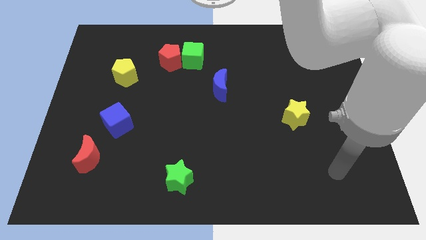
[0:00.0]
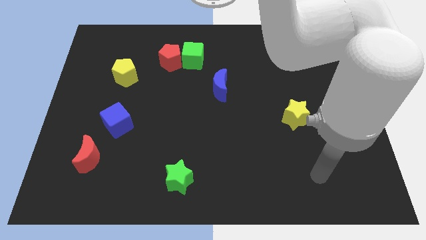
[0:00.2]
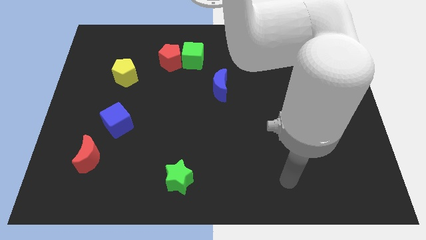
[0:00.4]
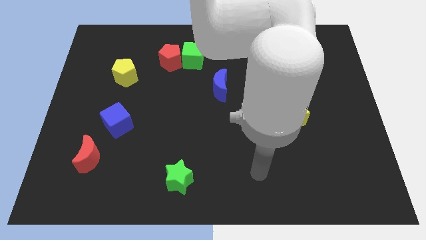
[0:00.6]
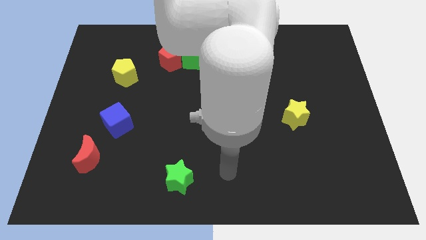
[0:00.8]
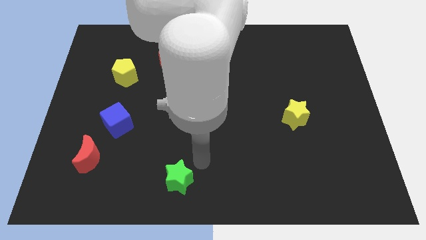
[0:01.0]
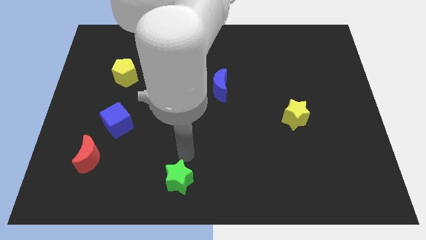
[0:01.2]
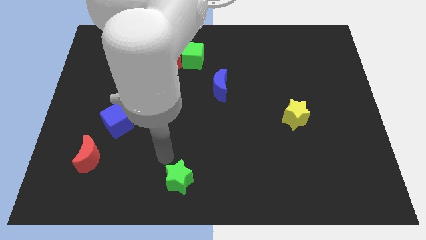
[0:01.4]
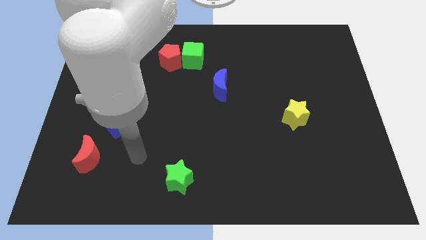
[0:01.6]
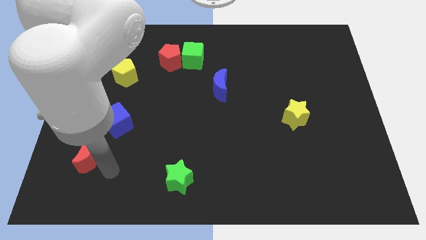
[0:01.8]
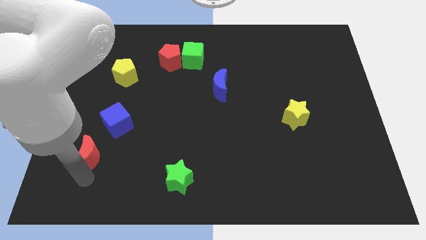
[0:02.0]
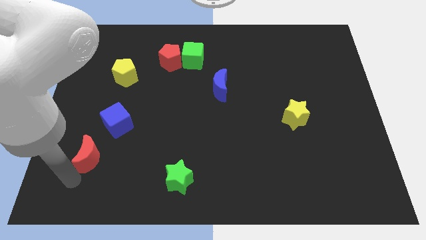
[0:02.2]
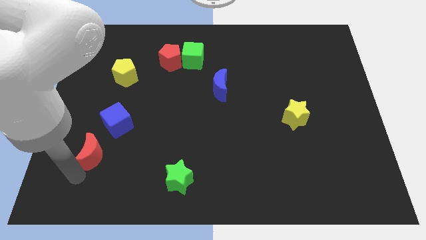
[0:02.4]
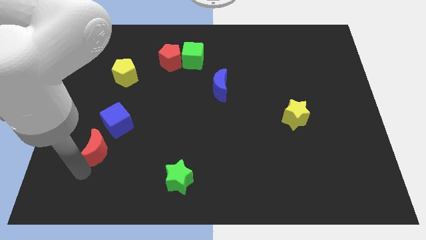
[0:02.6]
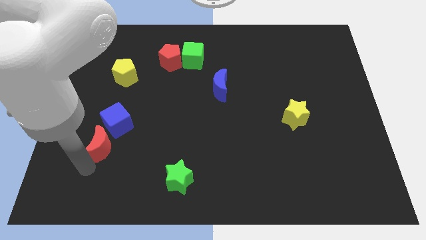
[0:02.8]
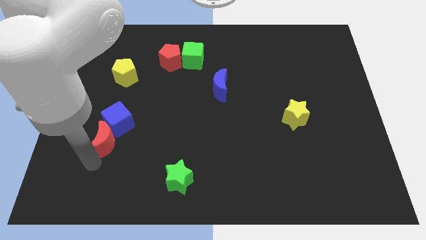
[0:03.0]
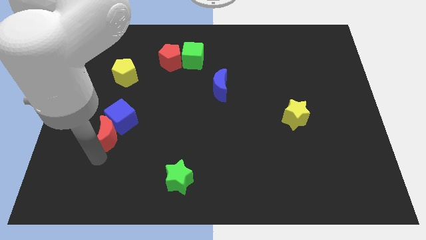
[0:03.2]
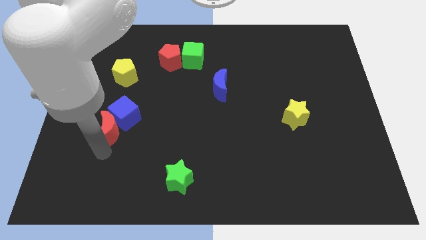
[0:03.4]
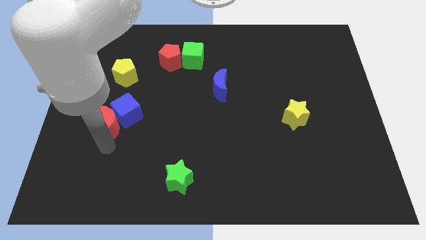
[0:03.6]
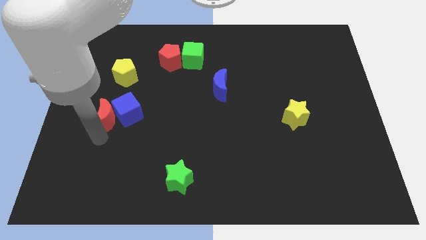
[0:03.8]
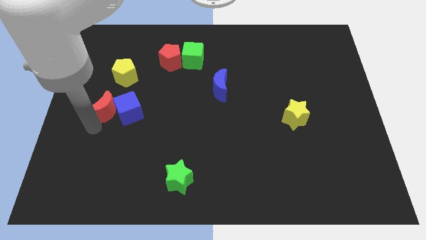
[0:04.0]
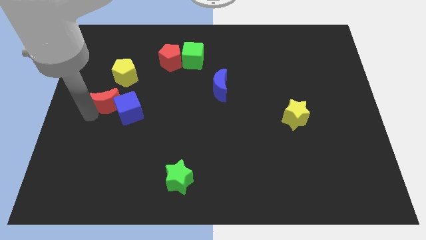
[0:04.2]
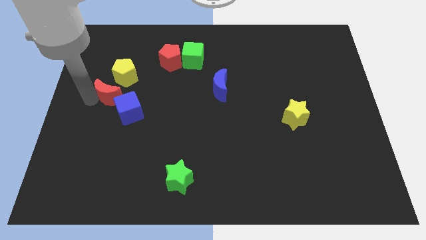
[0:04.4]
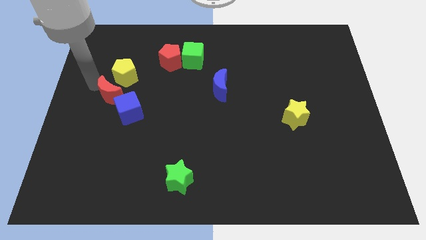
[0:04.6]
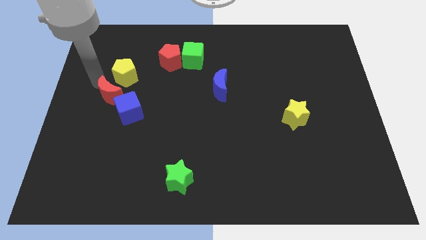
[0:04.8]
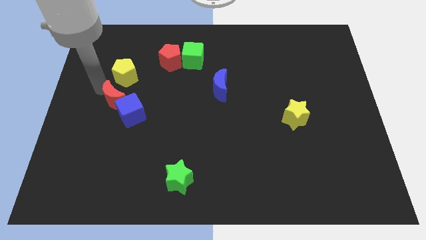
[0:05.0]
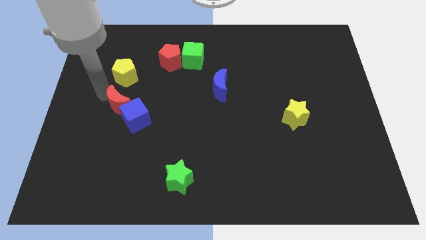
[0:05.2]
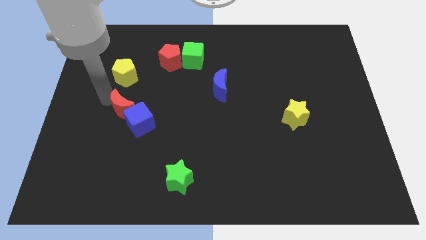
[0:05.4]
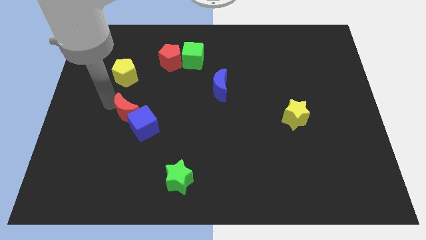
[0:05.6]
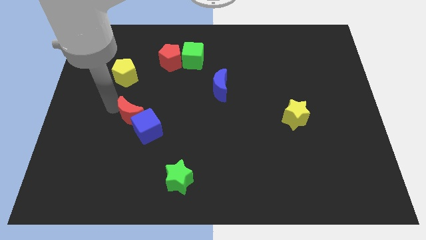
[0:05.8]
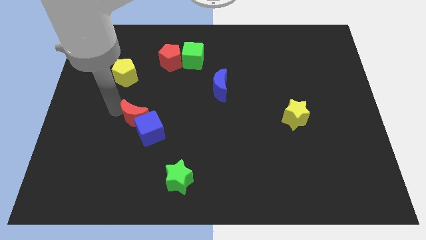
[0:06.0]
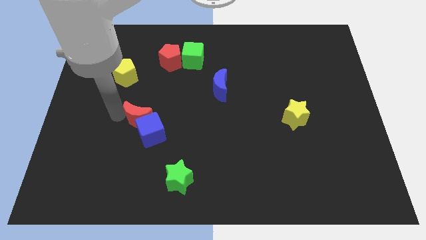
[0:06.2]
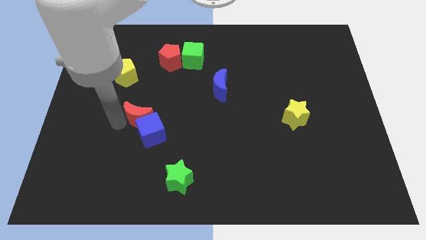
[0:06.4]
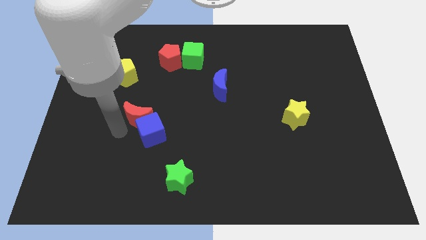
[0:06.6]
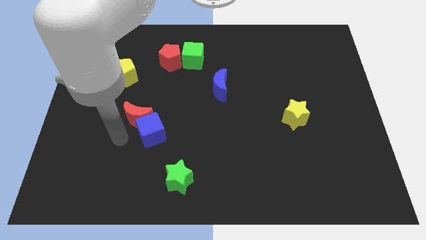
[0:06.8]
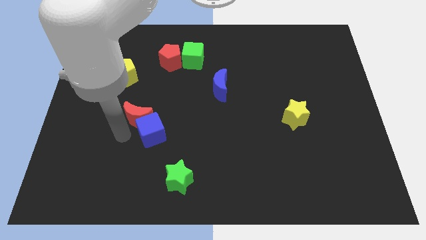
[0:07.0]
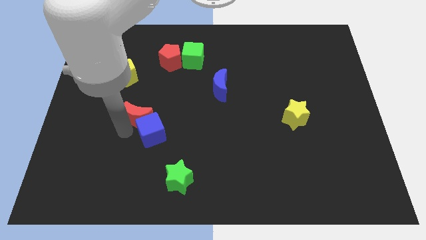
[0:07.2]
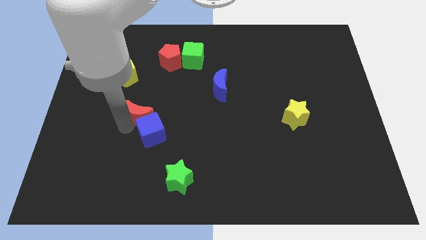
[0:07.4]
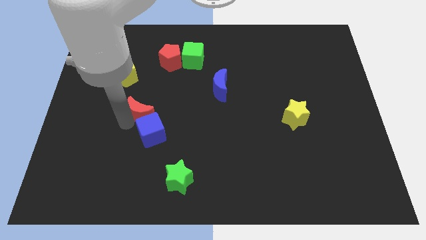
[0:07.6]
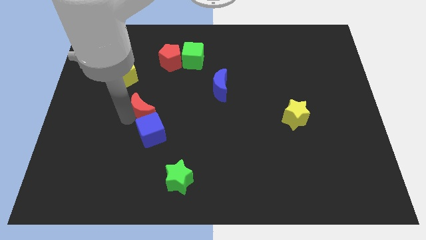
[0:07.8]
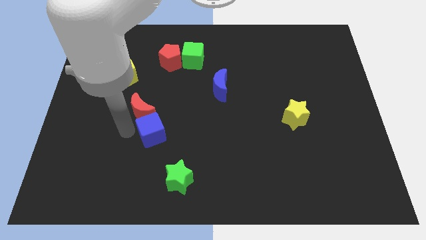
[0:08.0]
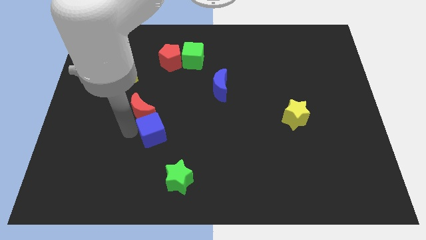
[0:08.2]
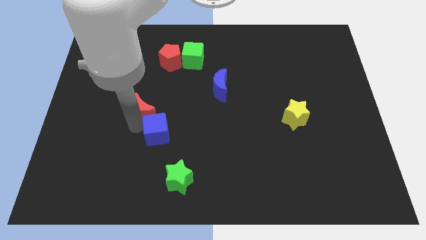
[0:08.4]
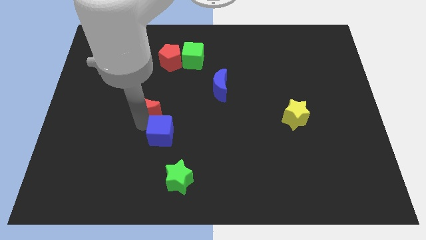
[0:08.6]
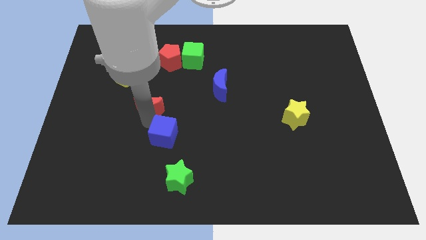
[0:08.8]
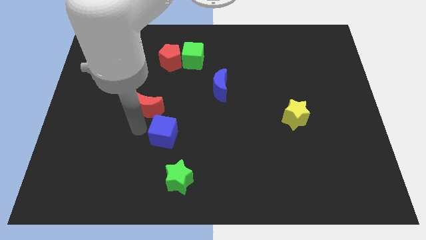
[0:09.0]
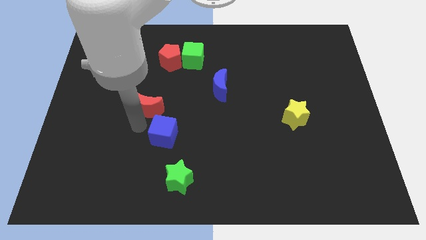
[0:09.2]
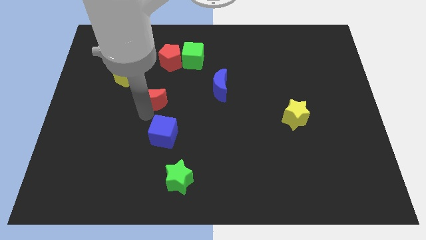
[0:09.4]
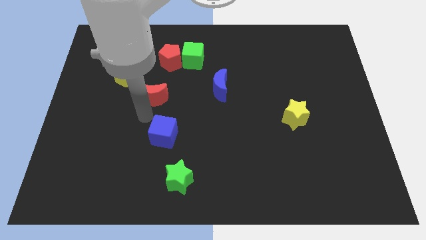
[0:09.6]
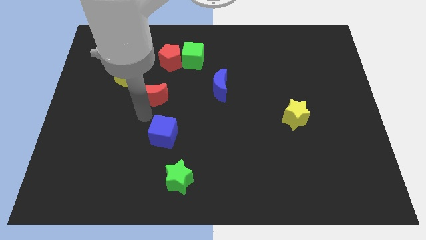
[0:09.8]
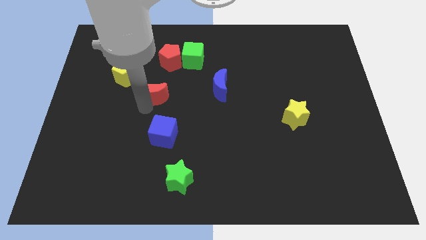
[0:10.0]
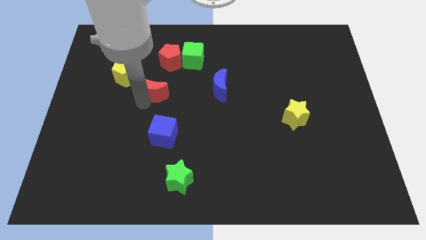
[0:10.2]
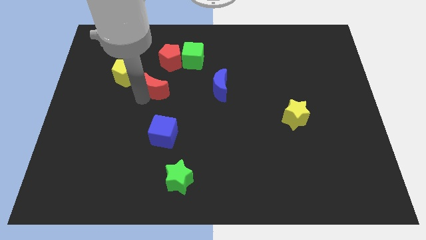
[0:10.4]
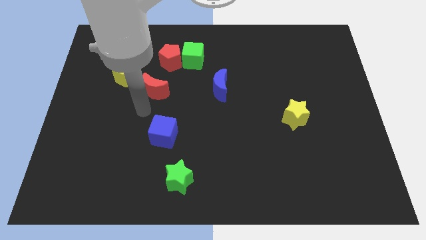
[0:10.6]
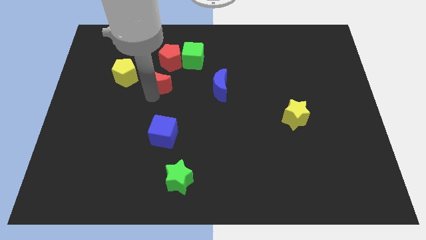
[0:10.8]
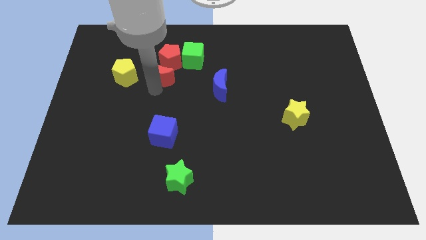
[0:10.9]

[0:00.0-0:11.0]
push the red moon to the red pentagon

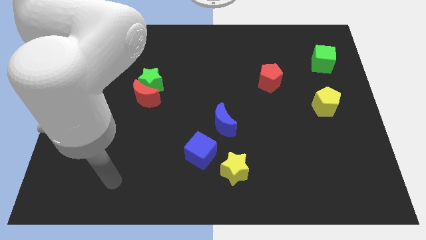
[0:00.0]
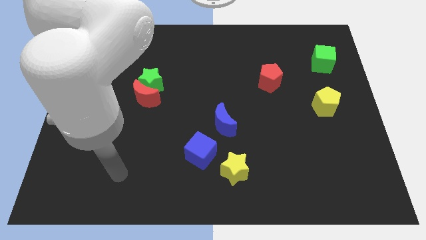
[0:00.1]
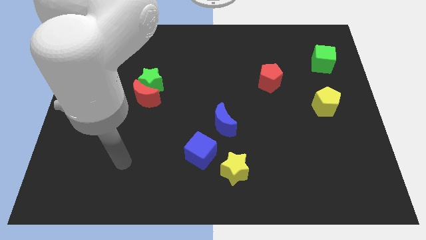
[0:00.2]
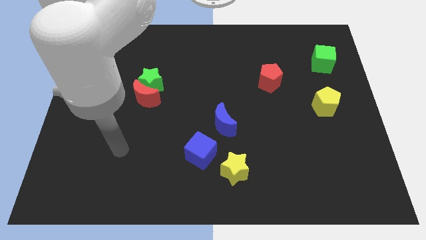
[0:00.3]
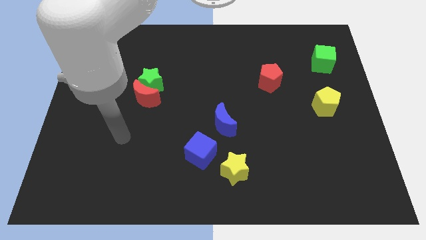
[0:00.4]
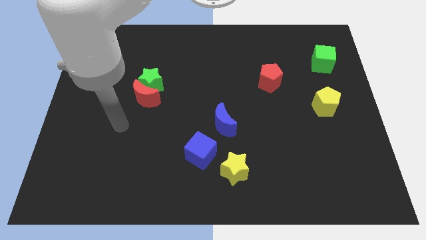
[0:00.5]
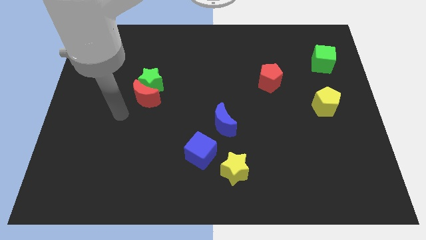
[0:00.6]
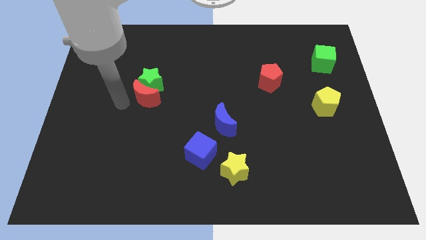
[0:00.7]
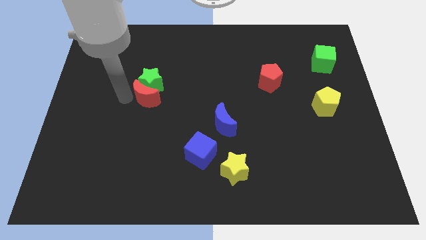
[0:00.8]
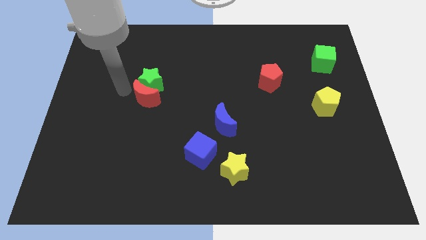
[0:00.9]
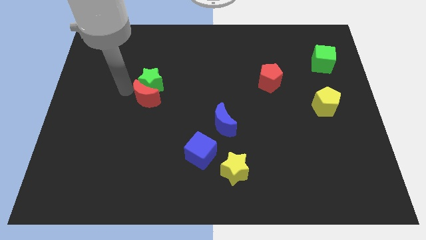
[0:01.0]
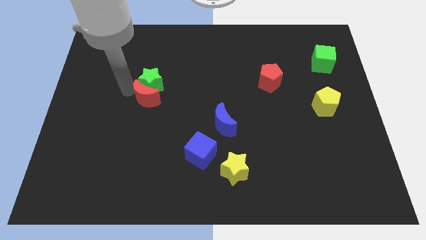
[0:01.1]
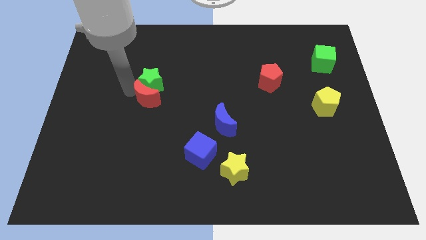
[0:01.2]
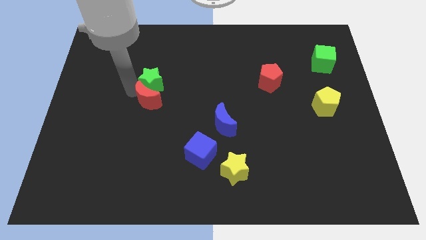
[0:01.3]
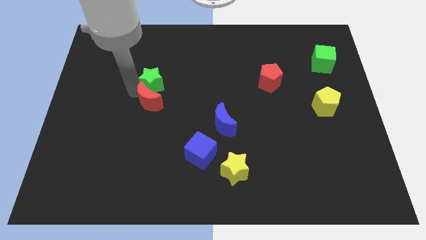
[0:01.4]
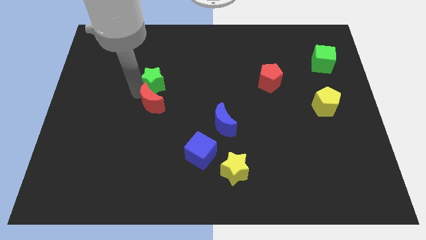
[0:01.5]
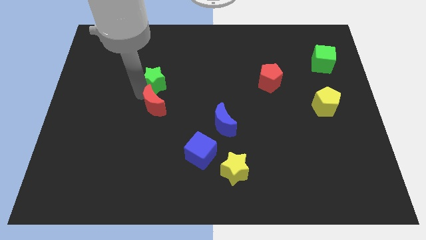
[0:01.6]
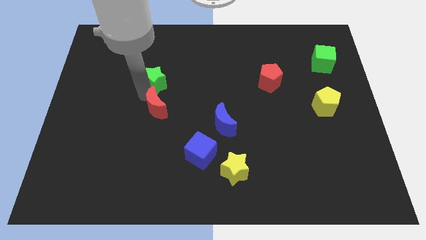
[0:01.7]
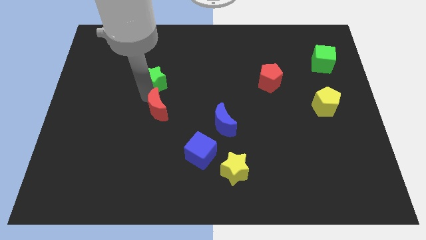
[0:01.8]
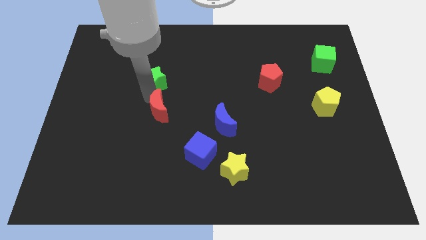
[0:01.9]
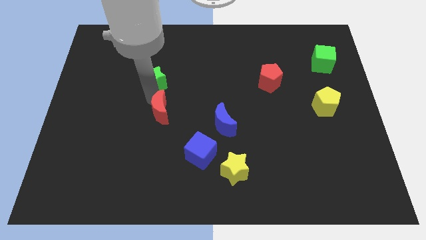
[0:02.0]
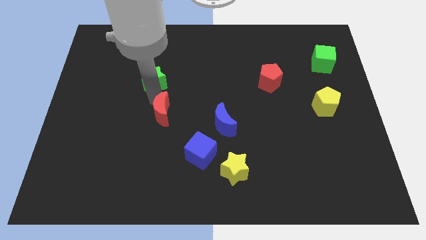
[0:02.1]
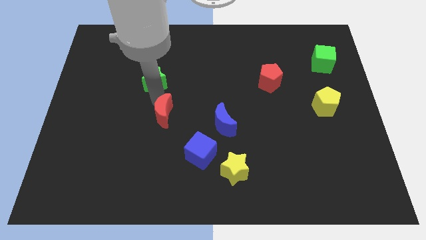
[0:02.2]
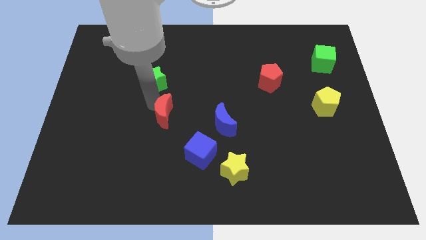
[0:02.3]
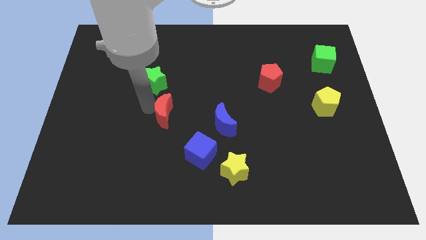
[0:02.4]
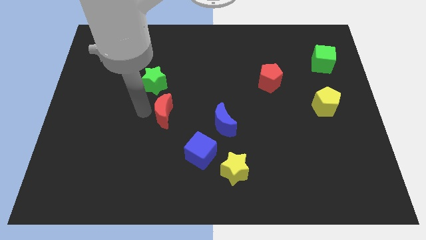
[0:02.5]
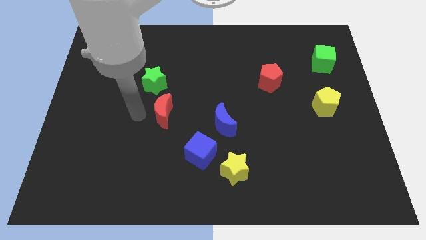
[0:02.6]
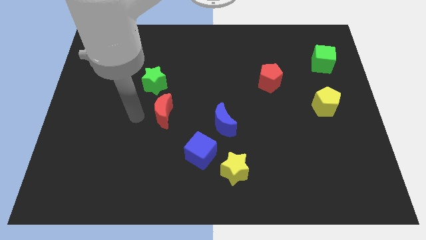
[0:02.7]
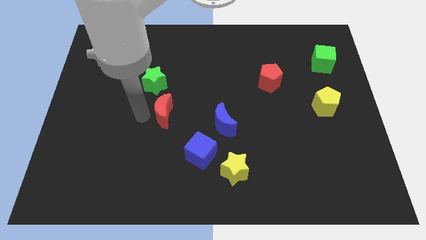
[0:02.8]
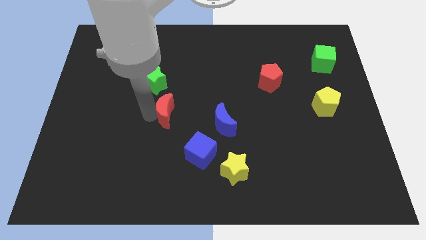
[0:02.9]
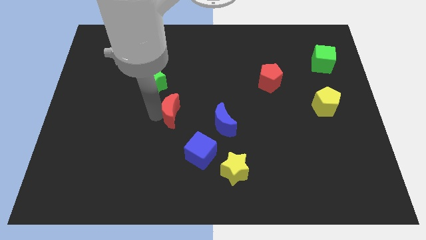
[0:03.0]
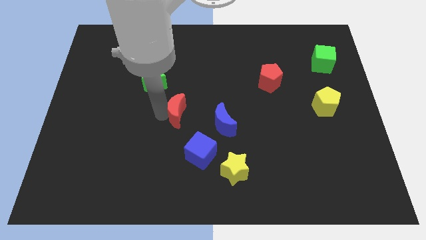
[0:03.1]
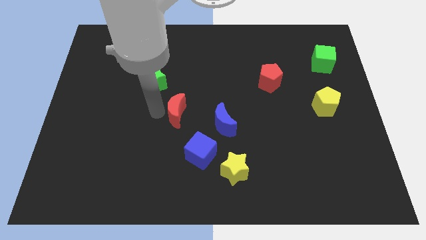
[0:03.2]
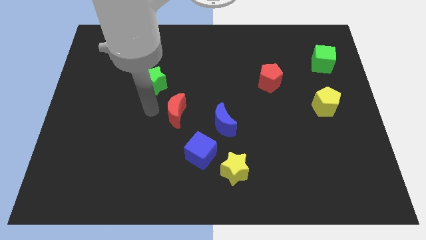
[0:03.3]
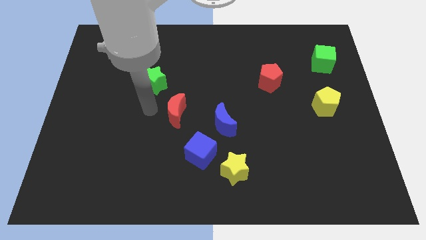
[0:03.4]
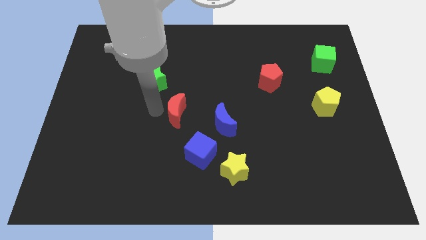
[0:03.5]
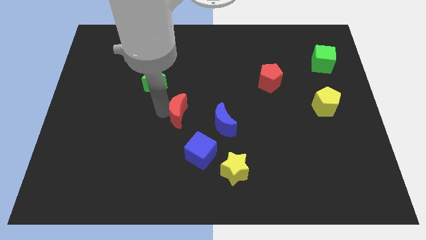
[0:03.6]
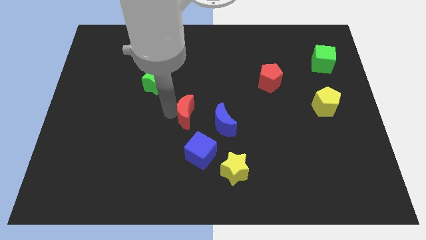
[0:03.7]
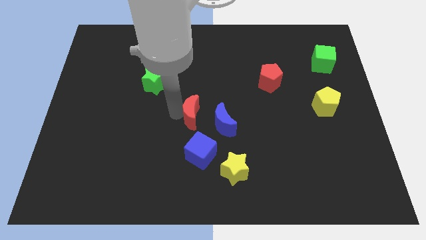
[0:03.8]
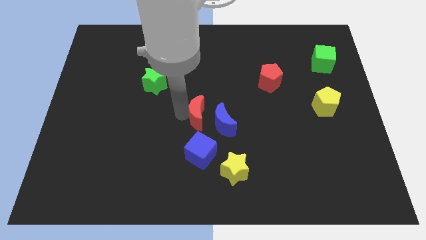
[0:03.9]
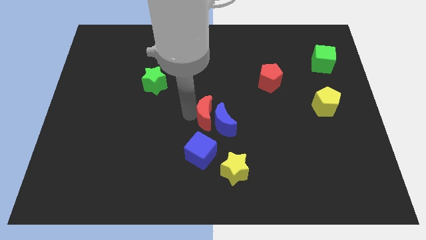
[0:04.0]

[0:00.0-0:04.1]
put the red moon towards the blue moon
